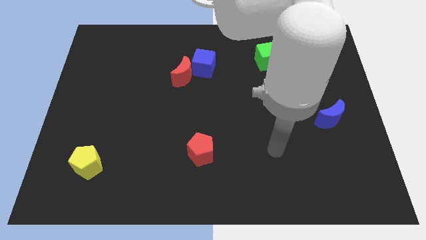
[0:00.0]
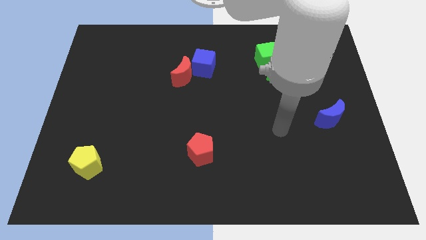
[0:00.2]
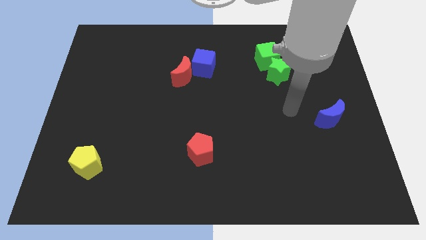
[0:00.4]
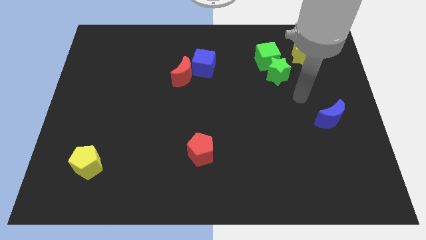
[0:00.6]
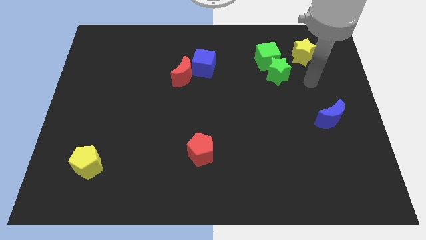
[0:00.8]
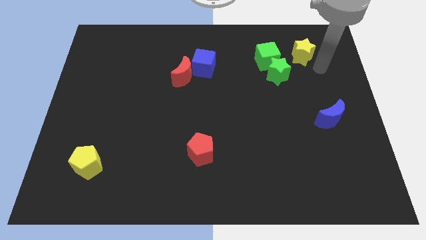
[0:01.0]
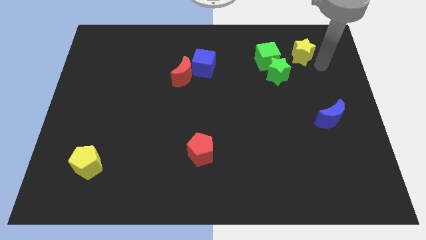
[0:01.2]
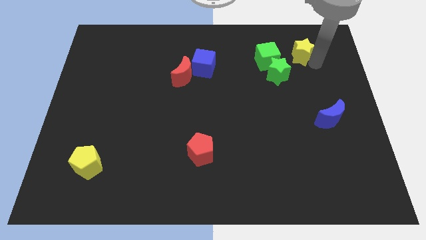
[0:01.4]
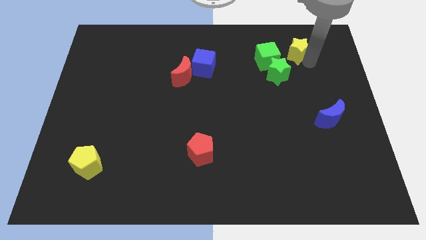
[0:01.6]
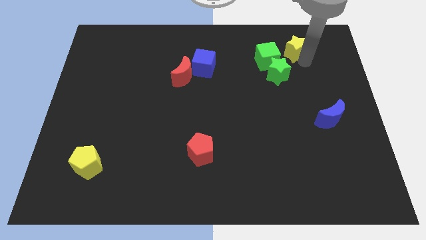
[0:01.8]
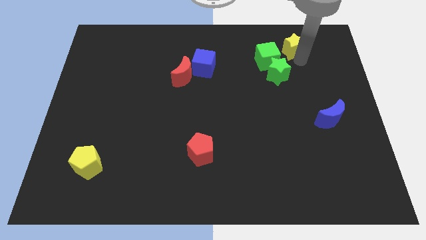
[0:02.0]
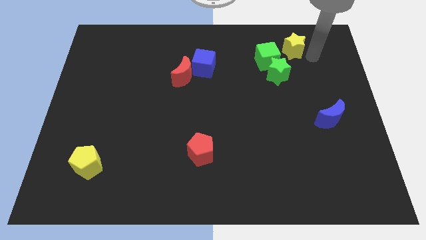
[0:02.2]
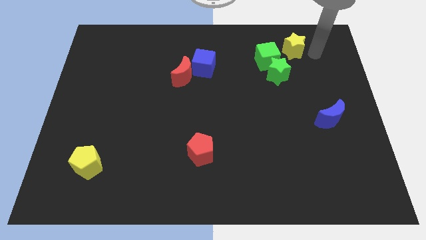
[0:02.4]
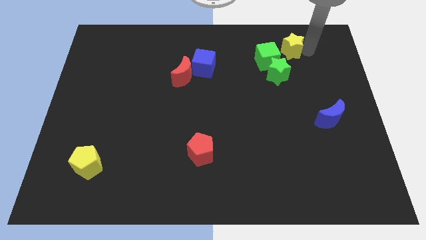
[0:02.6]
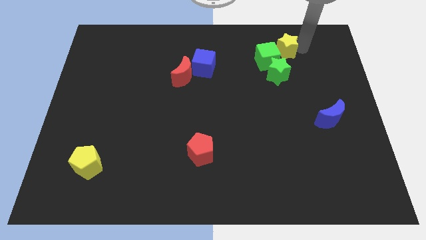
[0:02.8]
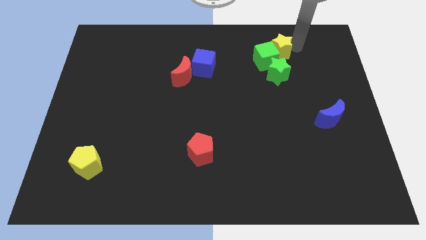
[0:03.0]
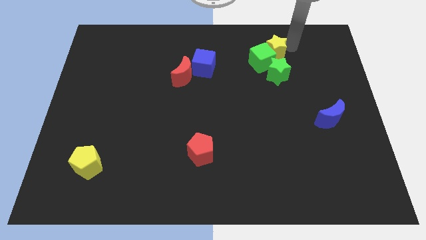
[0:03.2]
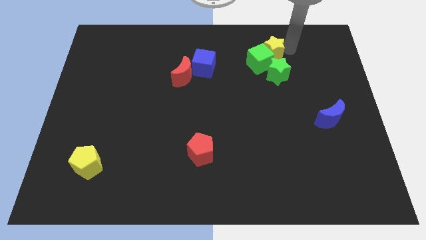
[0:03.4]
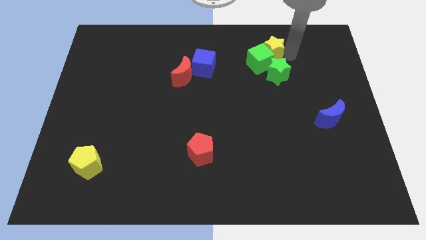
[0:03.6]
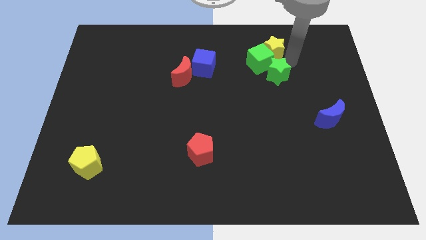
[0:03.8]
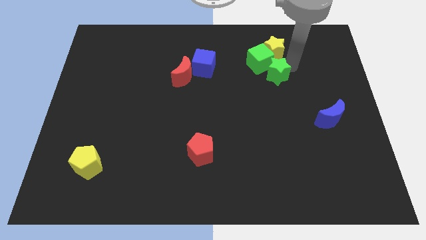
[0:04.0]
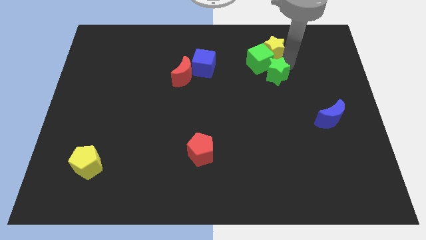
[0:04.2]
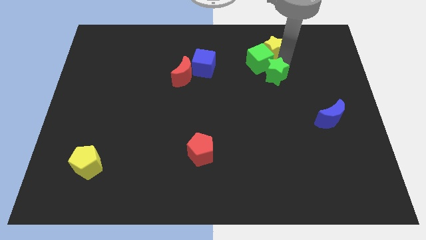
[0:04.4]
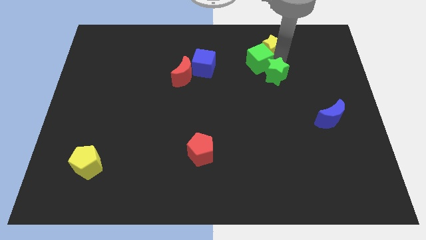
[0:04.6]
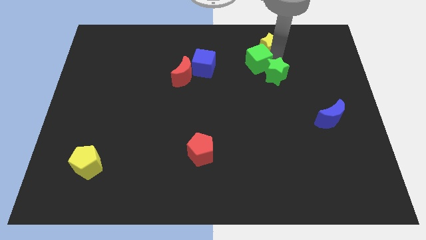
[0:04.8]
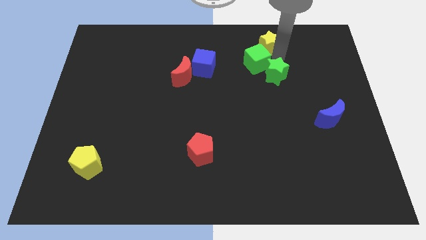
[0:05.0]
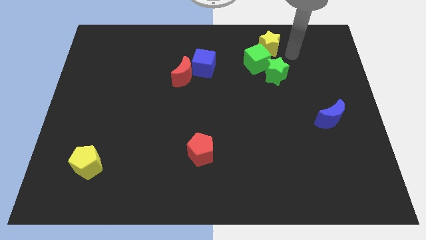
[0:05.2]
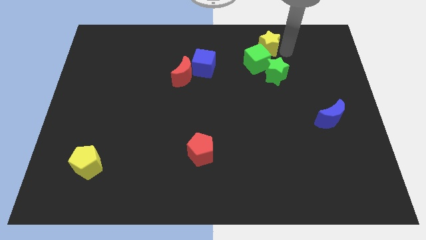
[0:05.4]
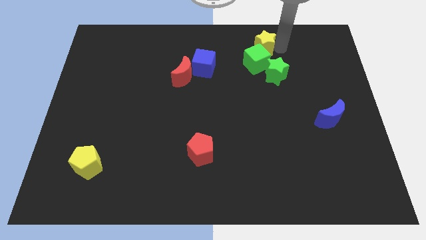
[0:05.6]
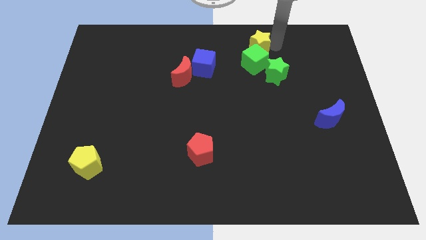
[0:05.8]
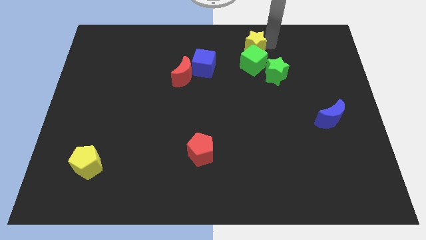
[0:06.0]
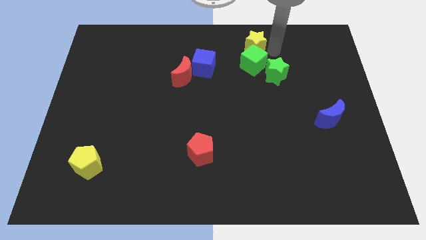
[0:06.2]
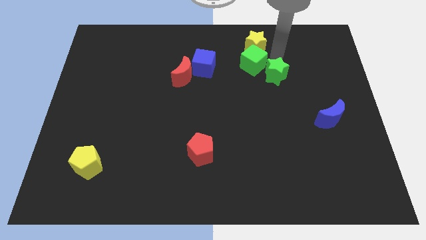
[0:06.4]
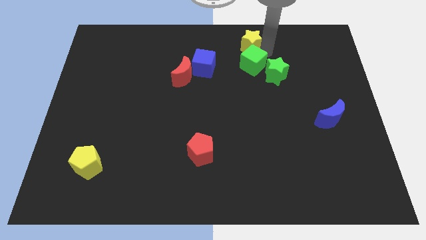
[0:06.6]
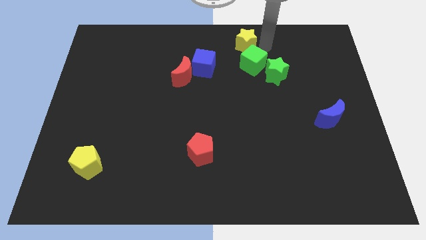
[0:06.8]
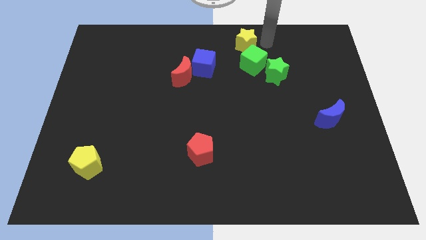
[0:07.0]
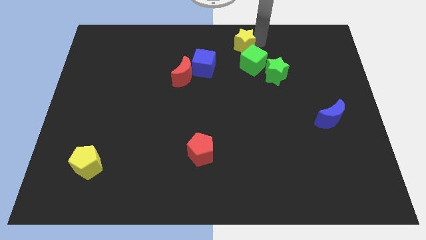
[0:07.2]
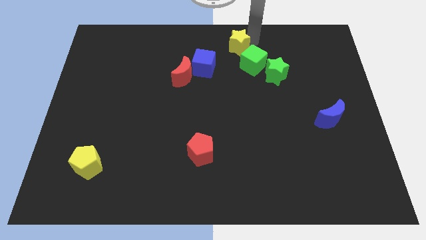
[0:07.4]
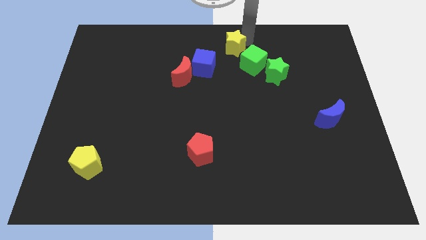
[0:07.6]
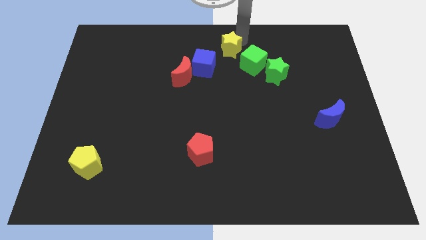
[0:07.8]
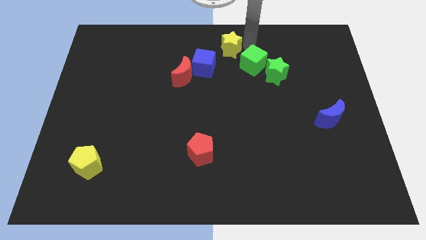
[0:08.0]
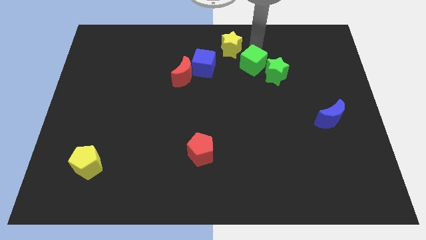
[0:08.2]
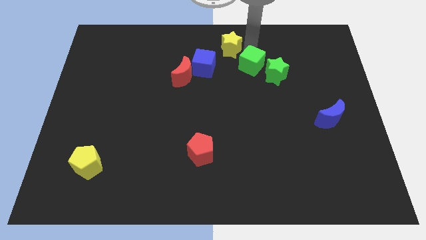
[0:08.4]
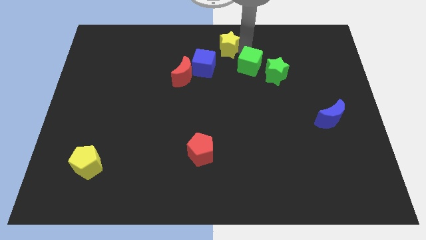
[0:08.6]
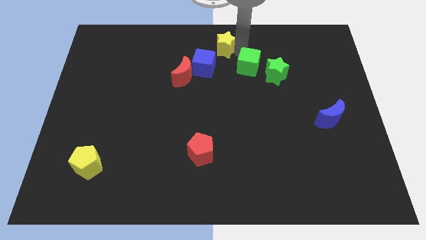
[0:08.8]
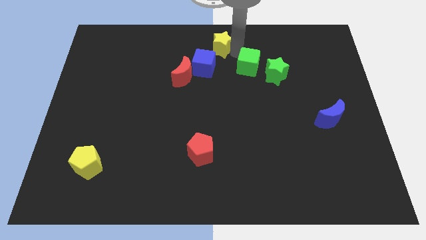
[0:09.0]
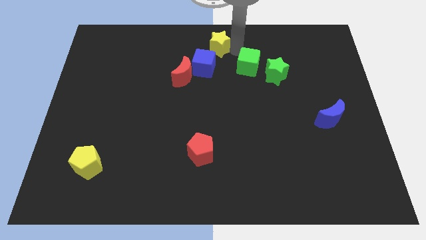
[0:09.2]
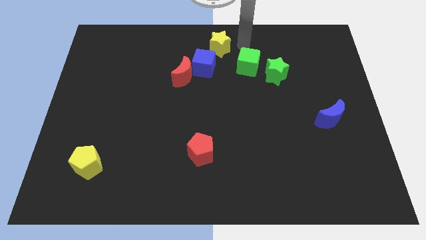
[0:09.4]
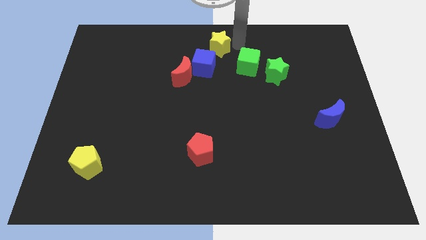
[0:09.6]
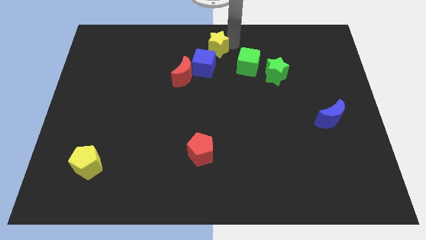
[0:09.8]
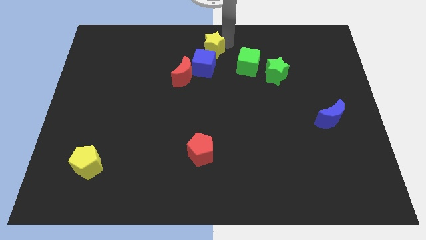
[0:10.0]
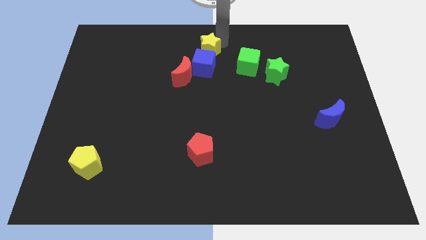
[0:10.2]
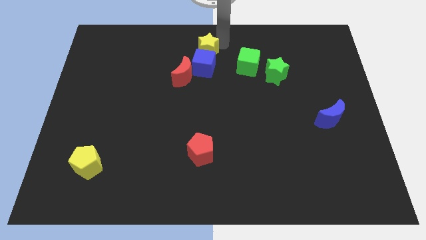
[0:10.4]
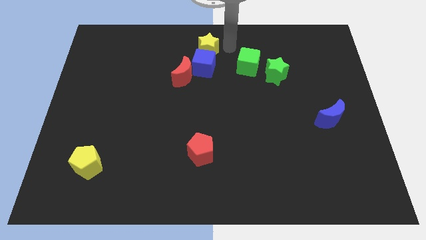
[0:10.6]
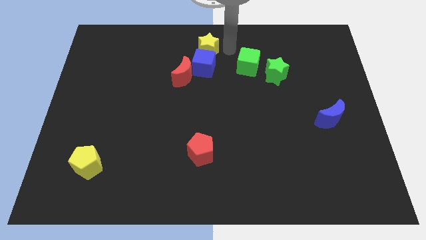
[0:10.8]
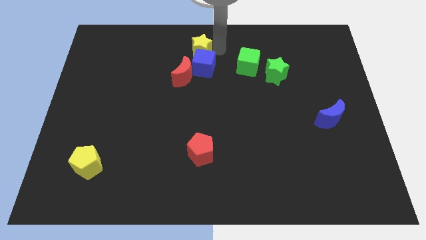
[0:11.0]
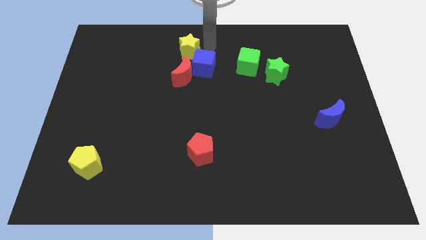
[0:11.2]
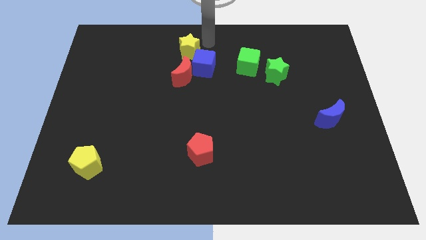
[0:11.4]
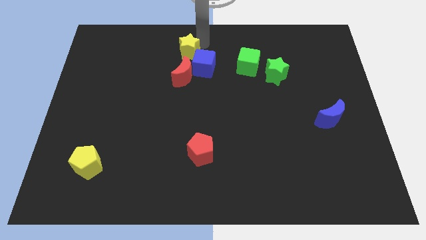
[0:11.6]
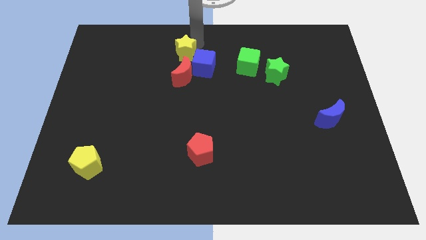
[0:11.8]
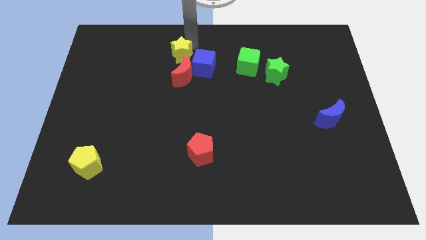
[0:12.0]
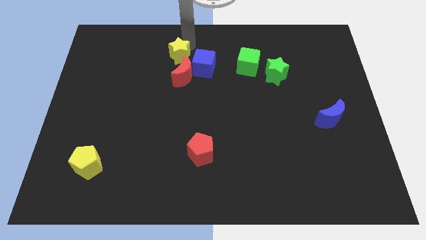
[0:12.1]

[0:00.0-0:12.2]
move the yellow star to the top left of the red moon

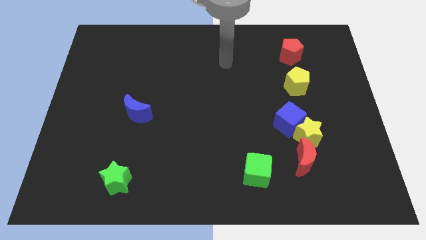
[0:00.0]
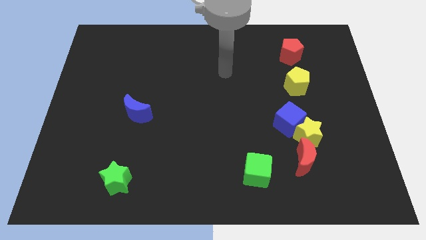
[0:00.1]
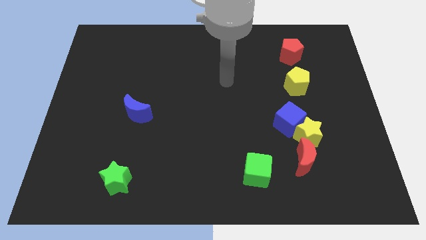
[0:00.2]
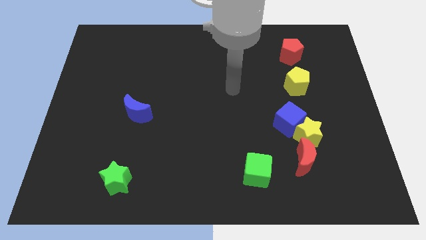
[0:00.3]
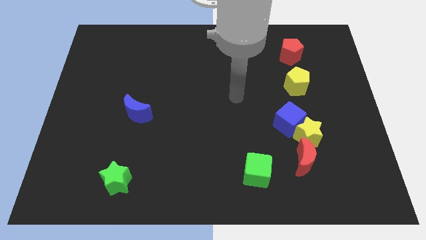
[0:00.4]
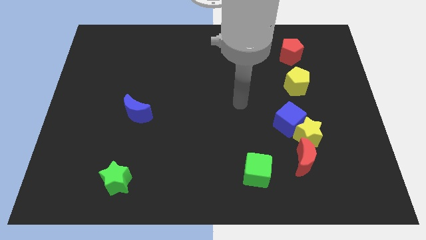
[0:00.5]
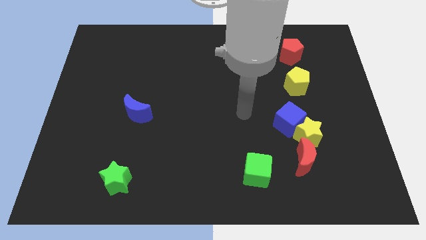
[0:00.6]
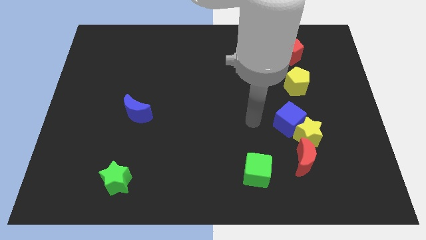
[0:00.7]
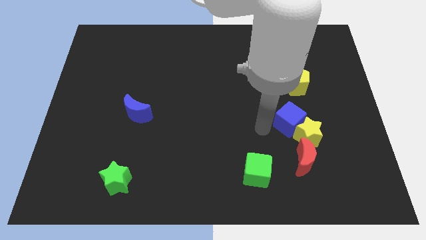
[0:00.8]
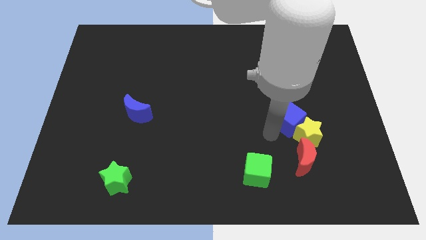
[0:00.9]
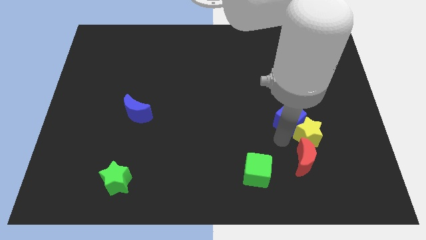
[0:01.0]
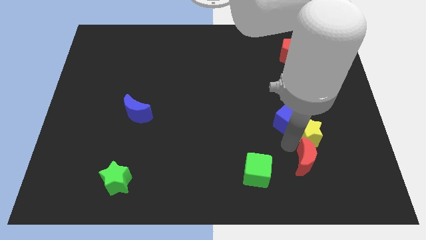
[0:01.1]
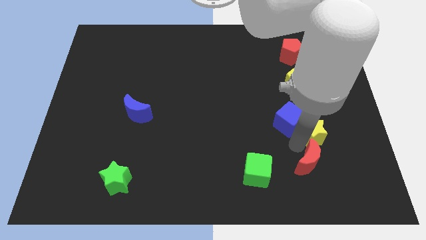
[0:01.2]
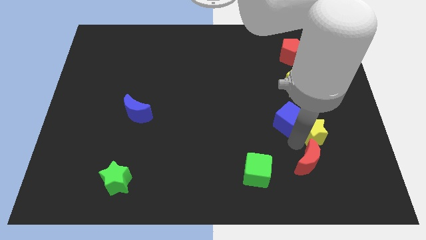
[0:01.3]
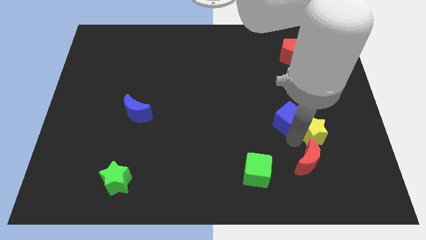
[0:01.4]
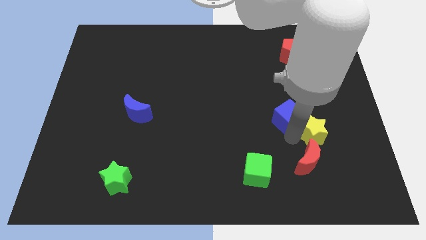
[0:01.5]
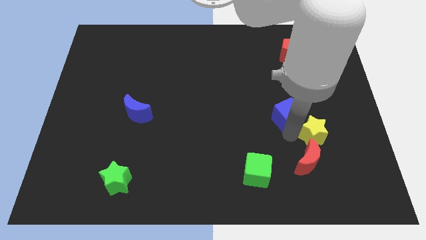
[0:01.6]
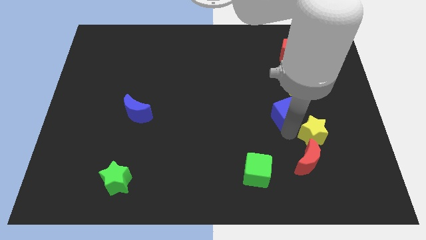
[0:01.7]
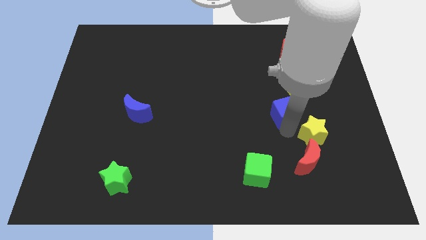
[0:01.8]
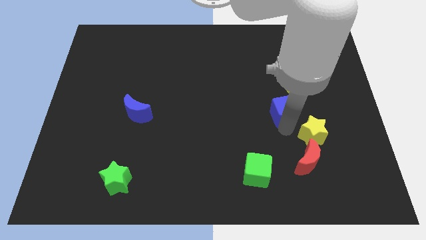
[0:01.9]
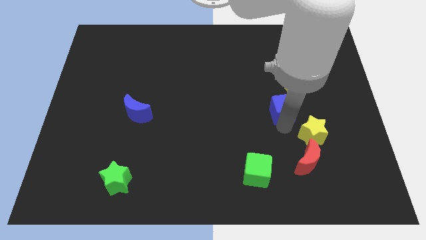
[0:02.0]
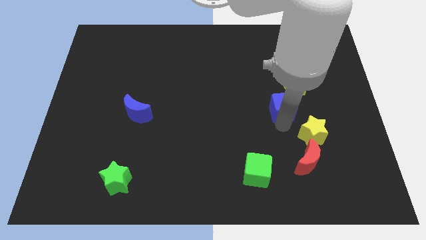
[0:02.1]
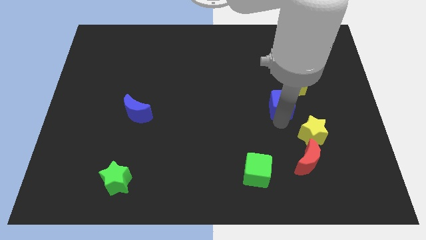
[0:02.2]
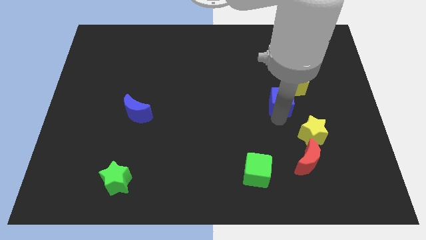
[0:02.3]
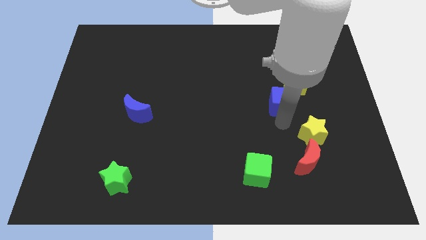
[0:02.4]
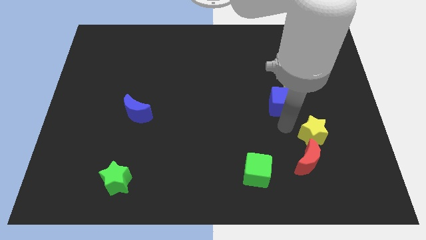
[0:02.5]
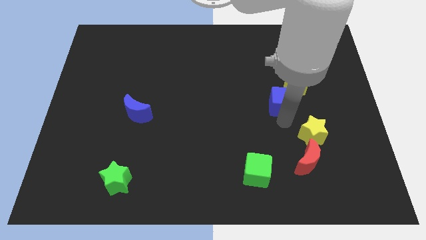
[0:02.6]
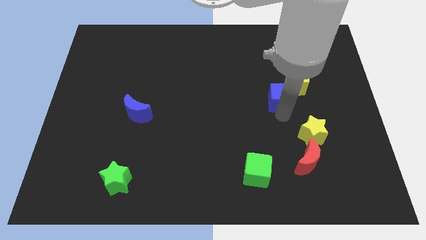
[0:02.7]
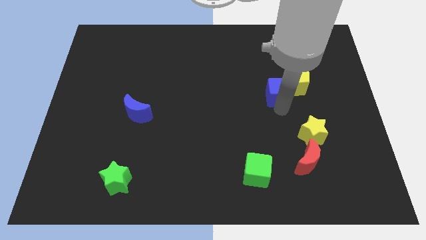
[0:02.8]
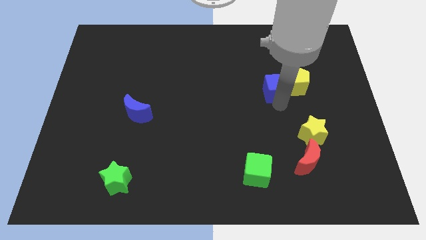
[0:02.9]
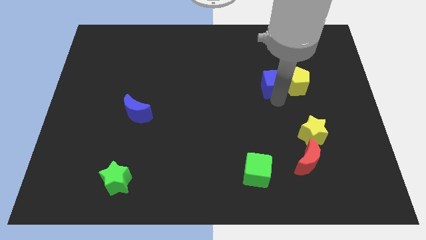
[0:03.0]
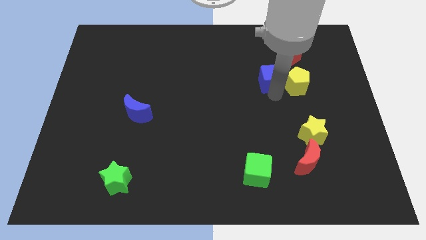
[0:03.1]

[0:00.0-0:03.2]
put the blue cube to the bottom left side of the red pentagon
